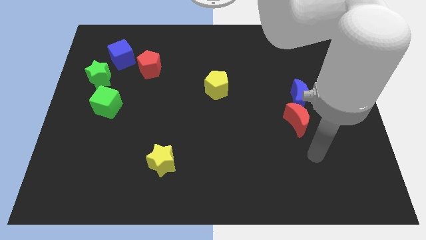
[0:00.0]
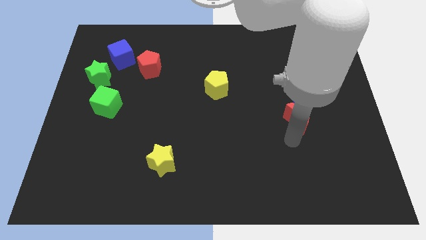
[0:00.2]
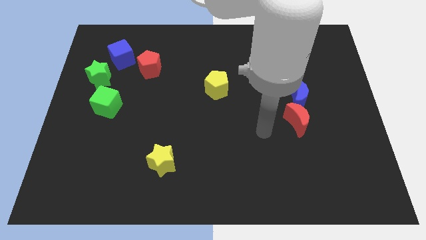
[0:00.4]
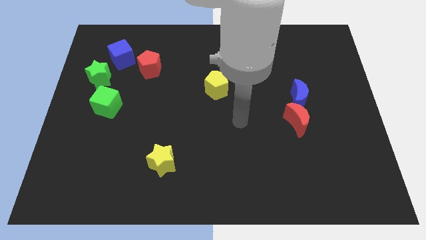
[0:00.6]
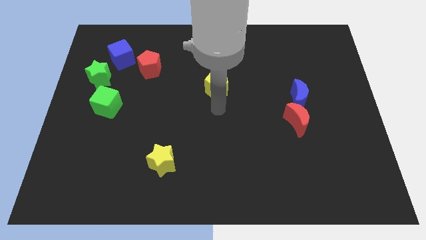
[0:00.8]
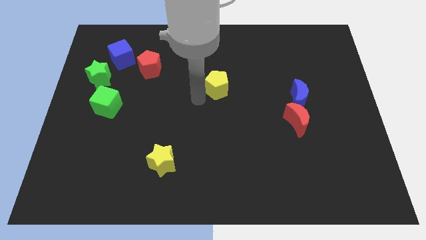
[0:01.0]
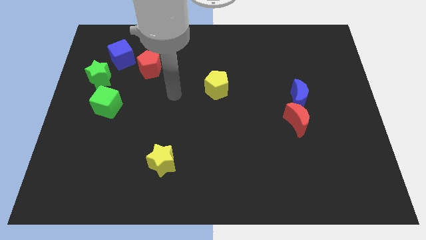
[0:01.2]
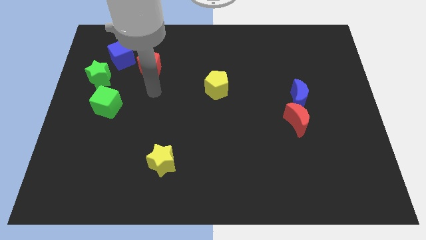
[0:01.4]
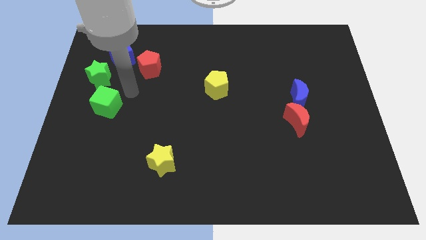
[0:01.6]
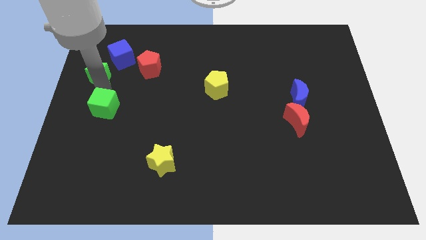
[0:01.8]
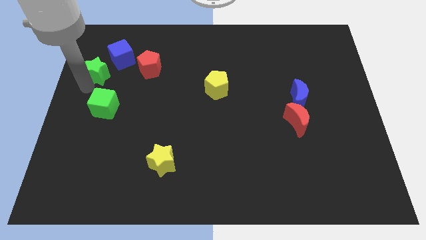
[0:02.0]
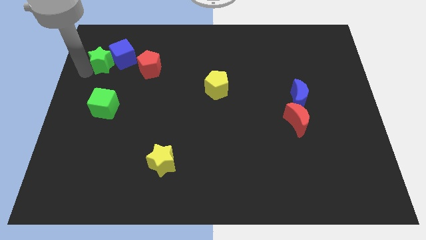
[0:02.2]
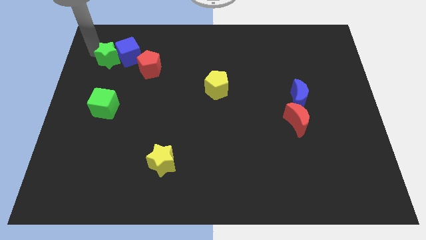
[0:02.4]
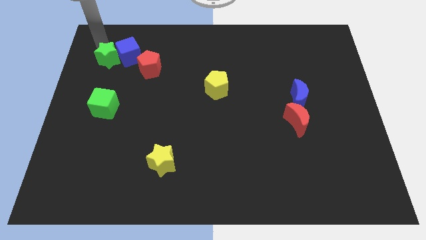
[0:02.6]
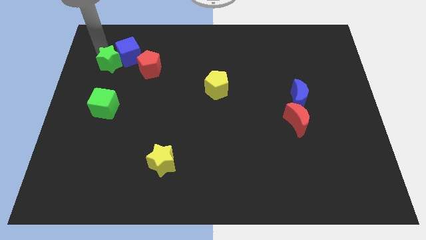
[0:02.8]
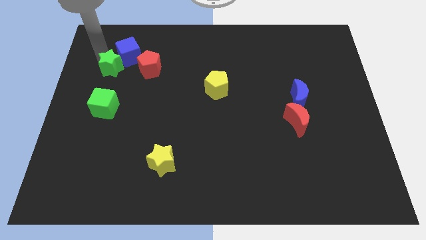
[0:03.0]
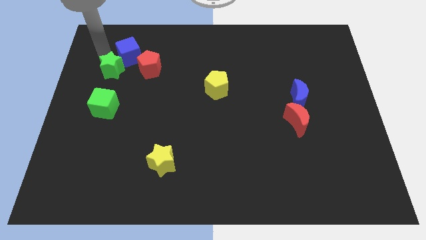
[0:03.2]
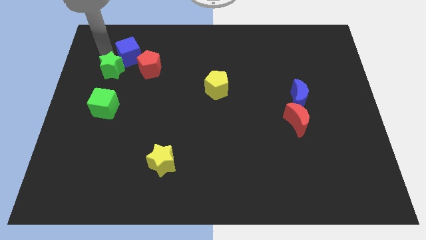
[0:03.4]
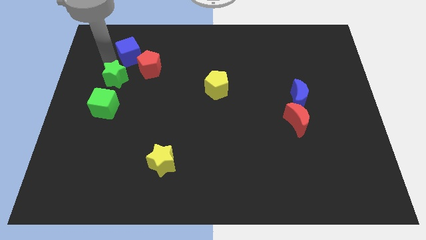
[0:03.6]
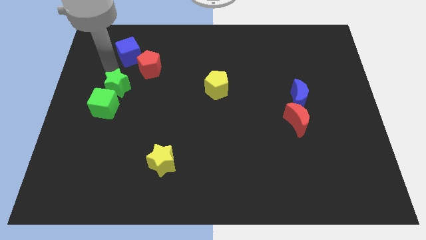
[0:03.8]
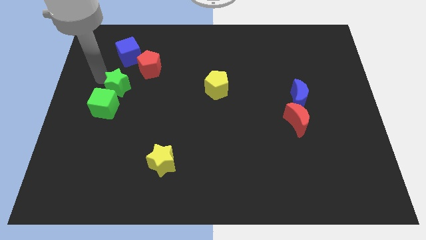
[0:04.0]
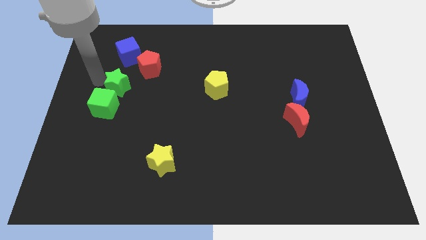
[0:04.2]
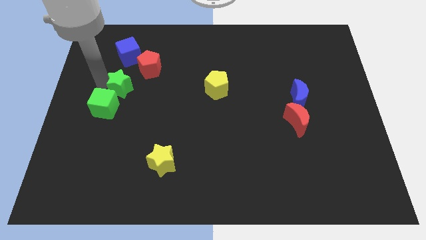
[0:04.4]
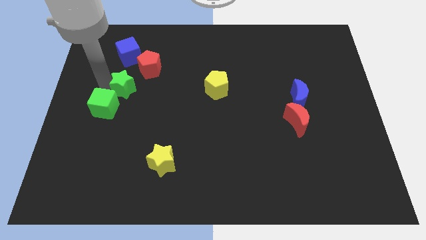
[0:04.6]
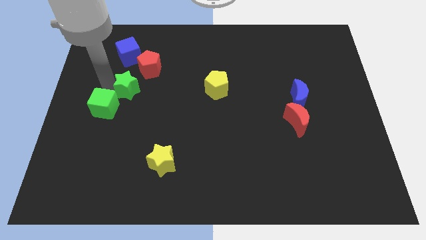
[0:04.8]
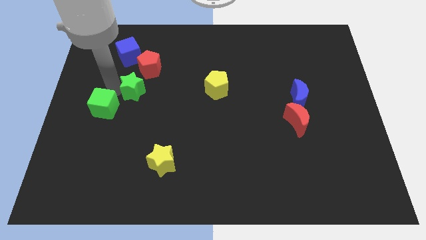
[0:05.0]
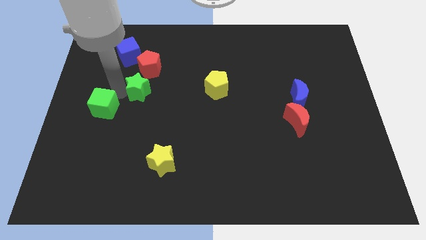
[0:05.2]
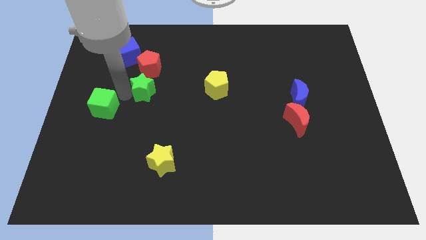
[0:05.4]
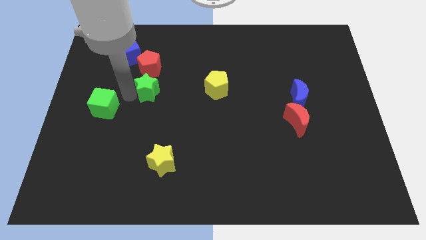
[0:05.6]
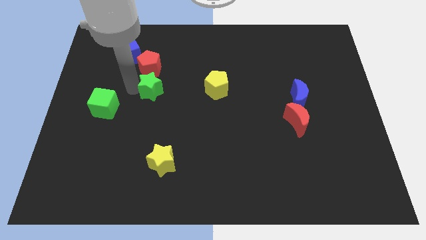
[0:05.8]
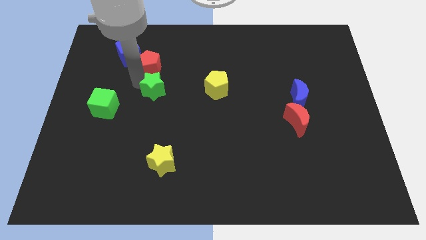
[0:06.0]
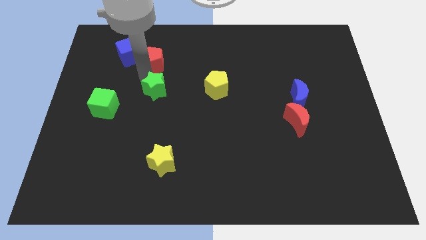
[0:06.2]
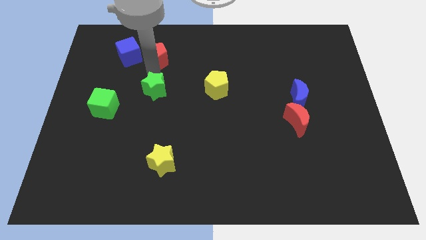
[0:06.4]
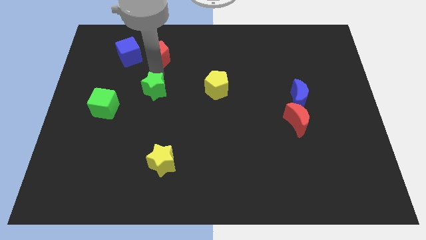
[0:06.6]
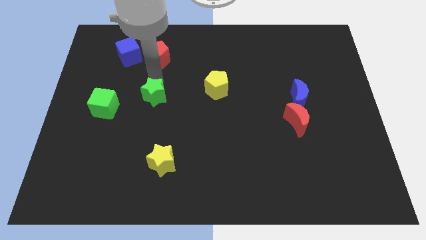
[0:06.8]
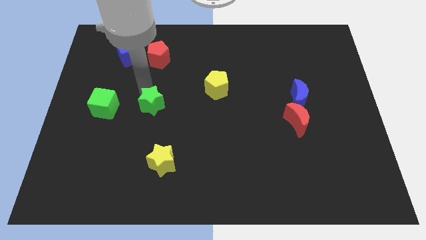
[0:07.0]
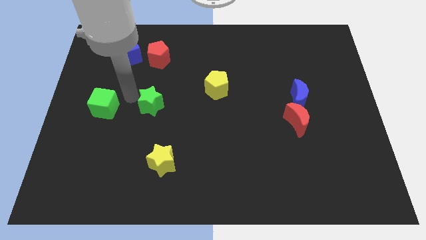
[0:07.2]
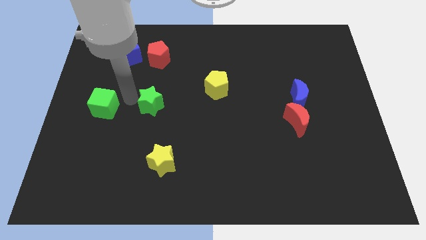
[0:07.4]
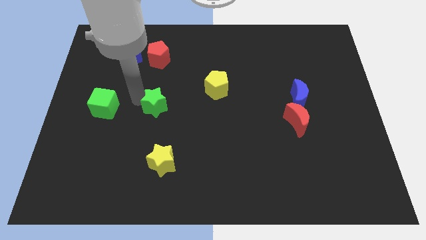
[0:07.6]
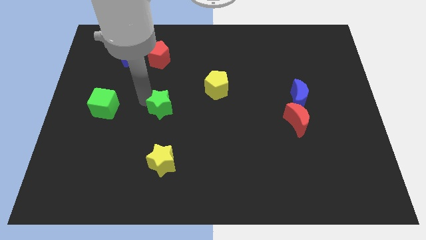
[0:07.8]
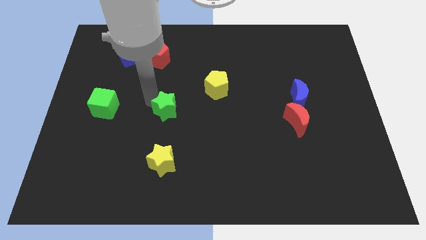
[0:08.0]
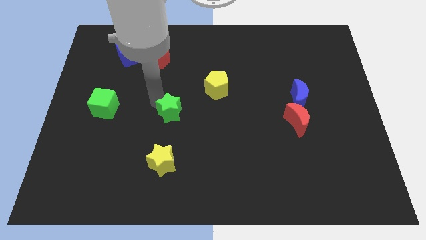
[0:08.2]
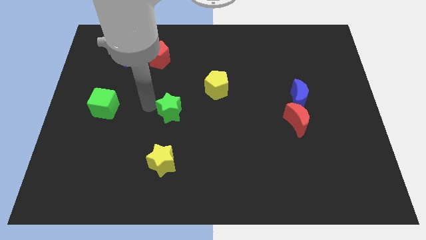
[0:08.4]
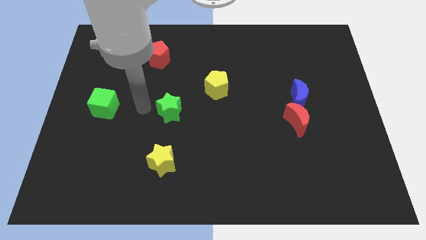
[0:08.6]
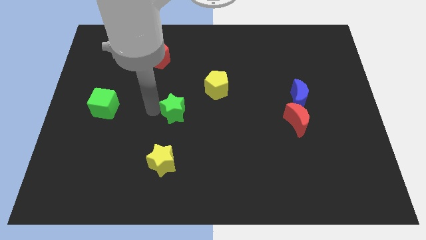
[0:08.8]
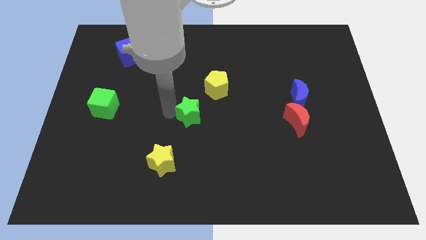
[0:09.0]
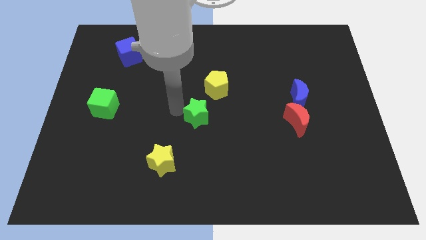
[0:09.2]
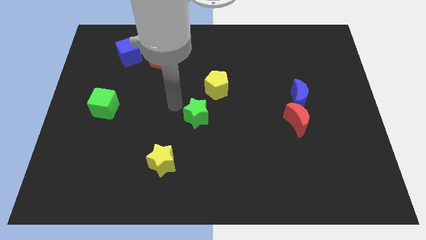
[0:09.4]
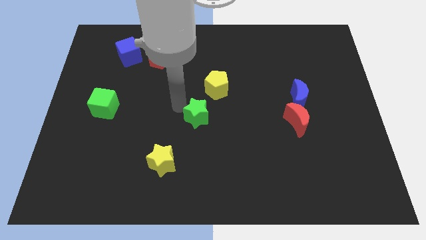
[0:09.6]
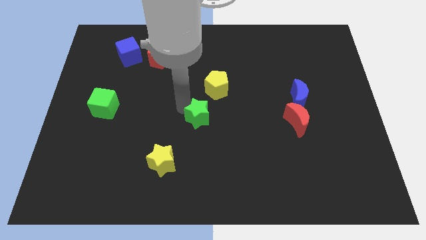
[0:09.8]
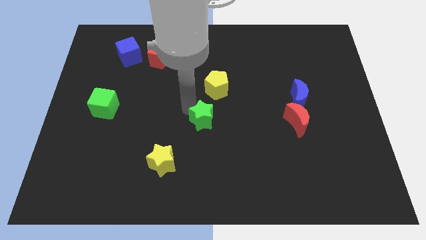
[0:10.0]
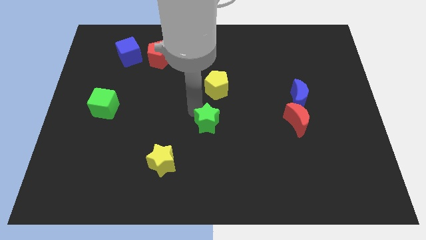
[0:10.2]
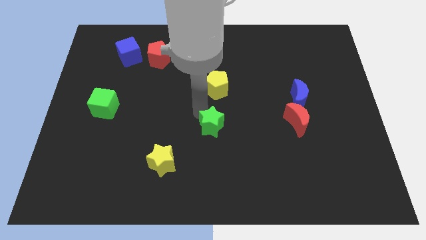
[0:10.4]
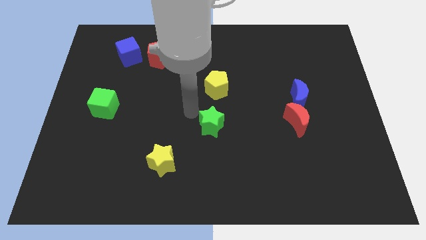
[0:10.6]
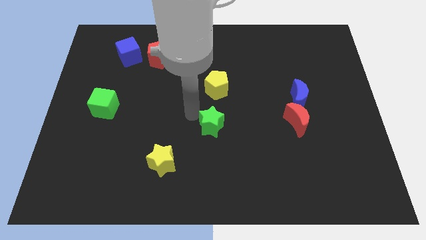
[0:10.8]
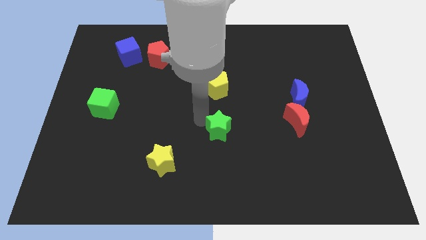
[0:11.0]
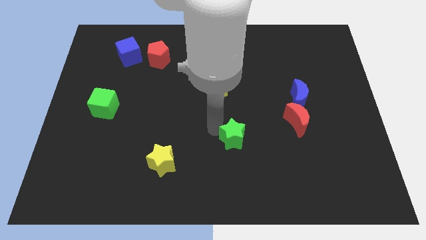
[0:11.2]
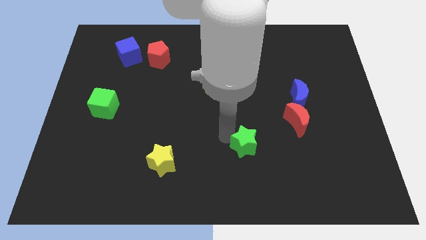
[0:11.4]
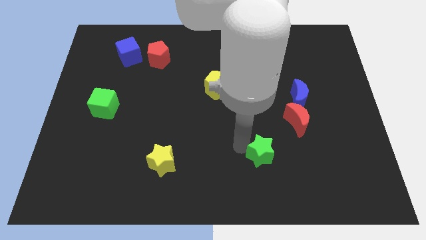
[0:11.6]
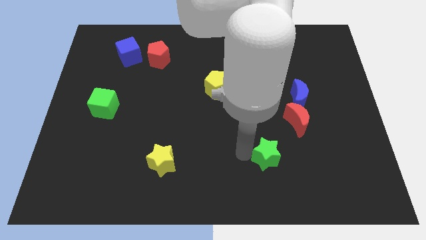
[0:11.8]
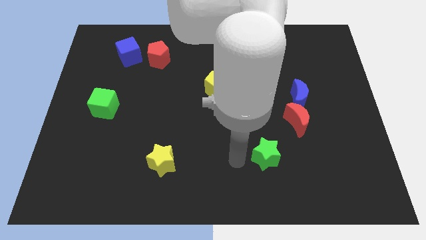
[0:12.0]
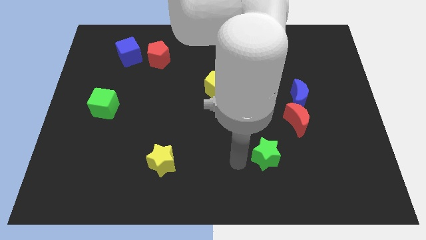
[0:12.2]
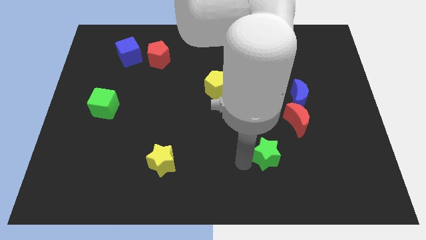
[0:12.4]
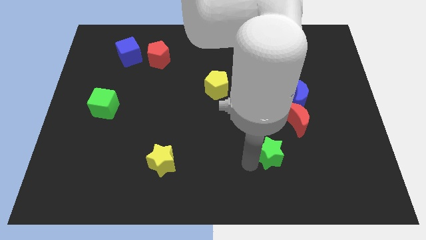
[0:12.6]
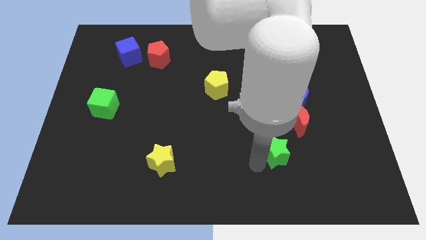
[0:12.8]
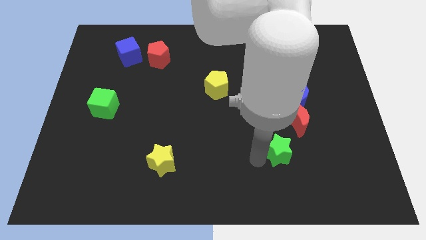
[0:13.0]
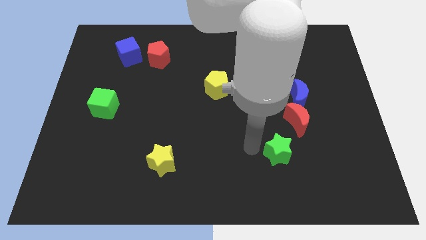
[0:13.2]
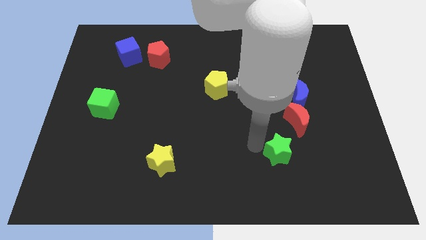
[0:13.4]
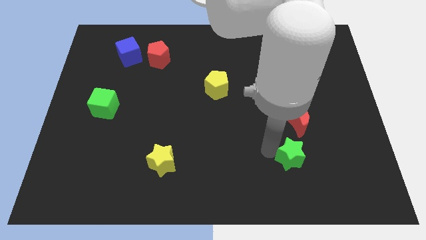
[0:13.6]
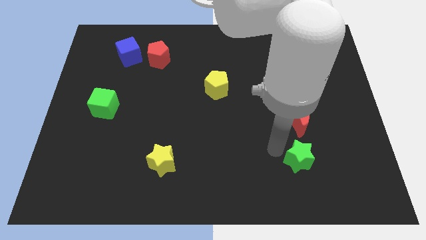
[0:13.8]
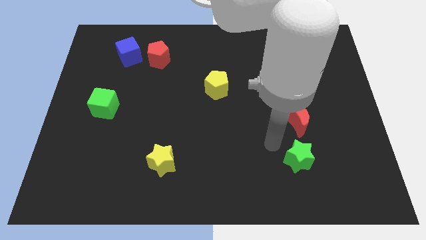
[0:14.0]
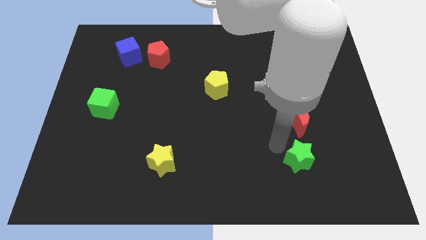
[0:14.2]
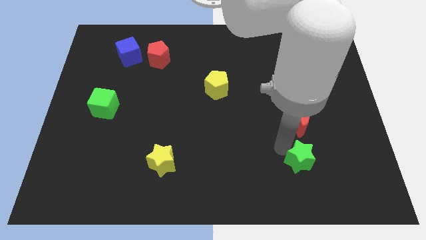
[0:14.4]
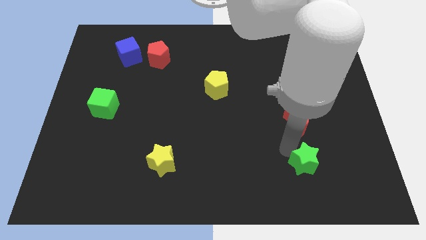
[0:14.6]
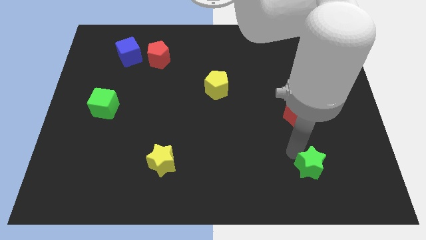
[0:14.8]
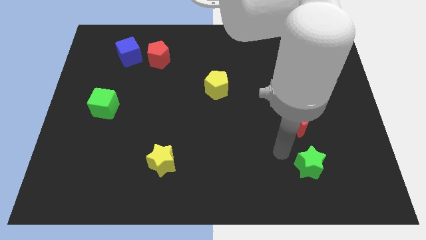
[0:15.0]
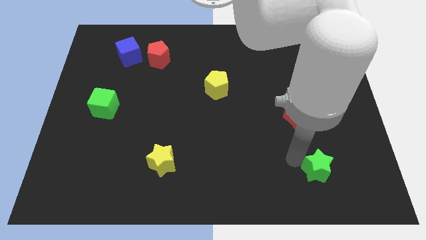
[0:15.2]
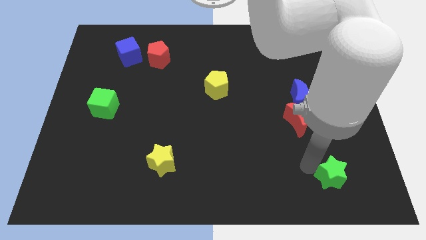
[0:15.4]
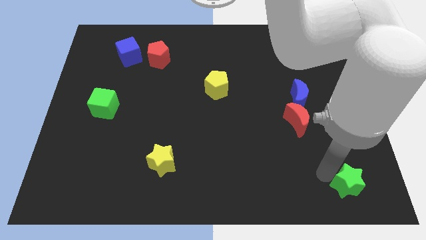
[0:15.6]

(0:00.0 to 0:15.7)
slide the green star to the bottom right
